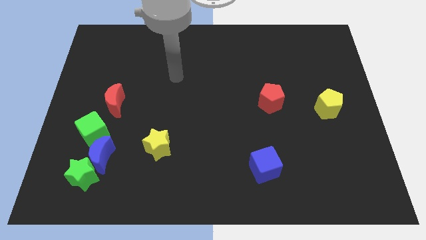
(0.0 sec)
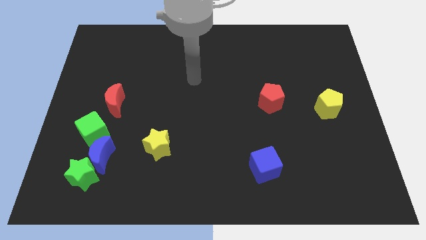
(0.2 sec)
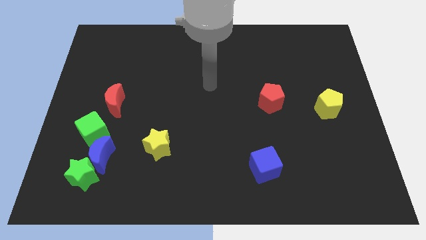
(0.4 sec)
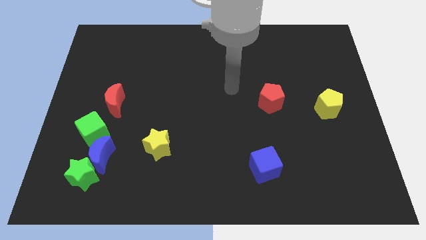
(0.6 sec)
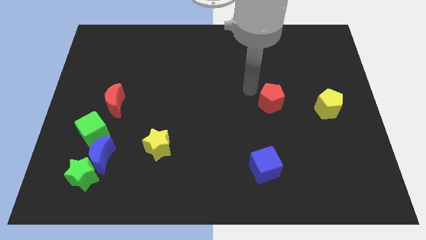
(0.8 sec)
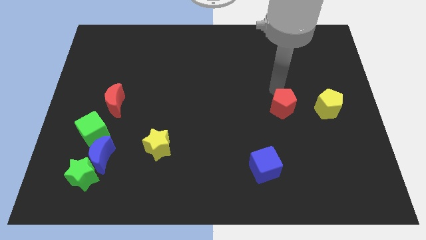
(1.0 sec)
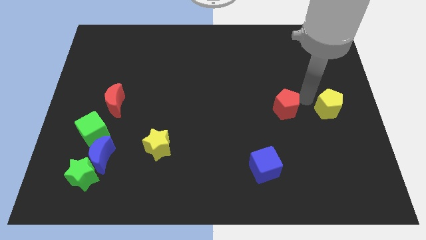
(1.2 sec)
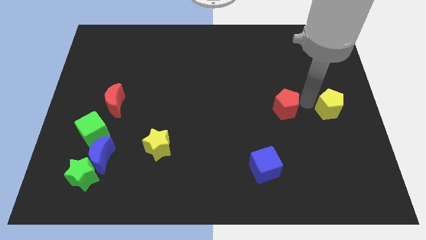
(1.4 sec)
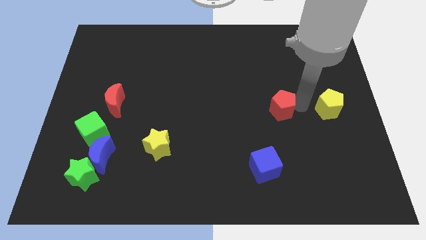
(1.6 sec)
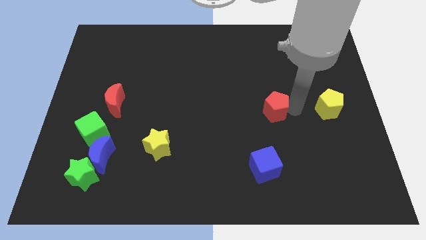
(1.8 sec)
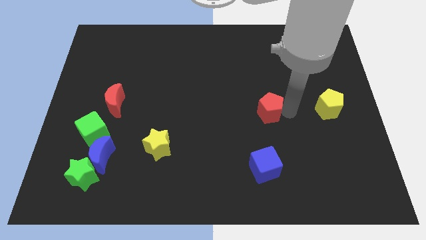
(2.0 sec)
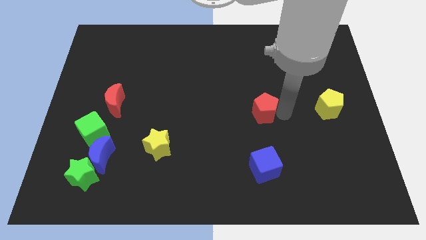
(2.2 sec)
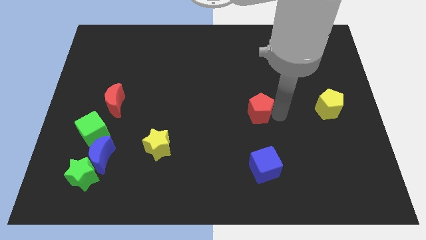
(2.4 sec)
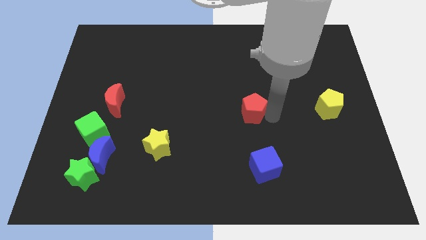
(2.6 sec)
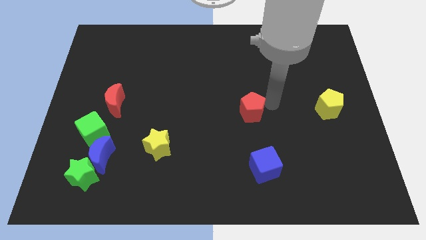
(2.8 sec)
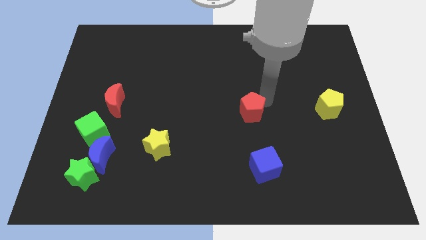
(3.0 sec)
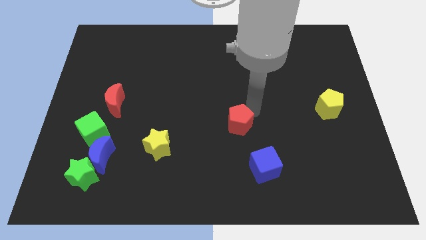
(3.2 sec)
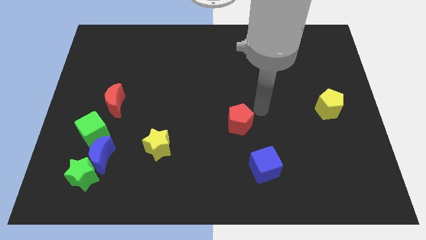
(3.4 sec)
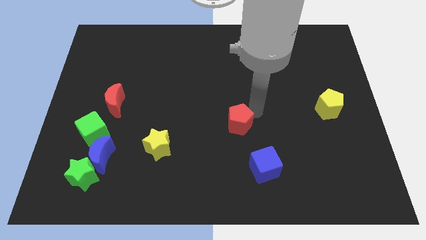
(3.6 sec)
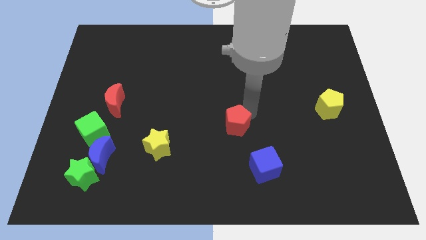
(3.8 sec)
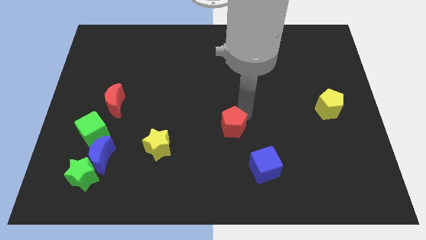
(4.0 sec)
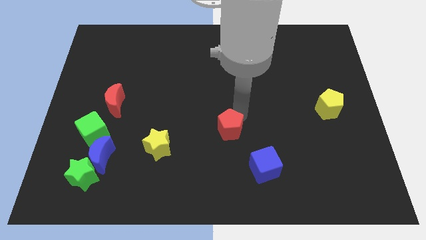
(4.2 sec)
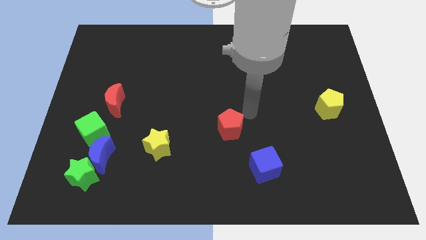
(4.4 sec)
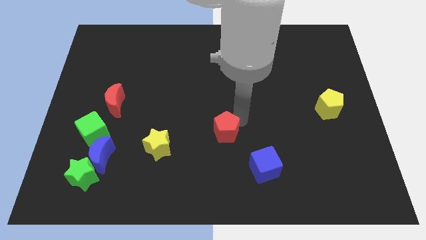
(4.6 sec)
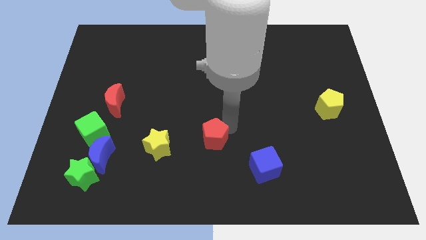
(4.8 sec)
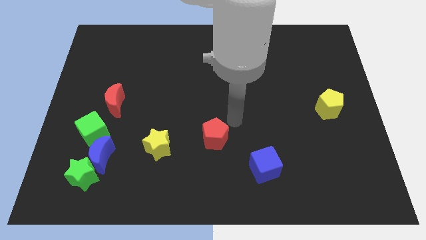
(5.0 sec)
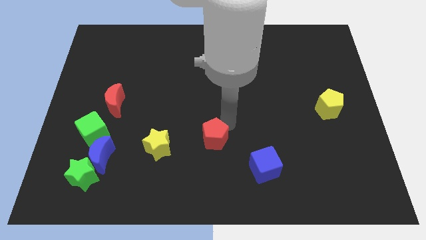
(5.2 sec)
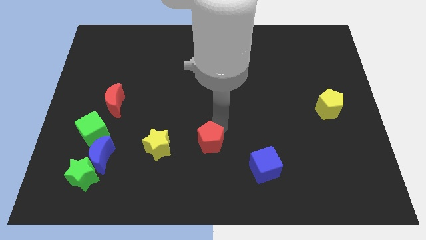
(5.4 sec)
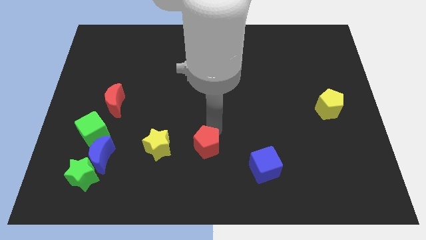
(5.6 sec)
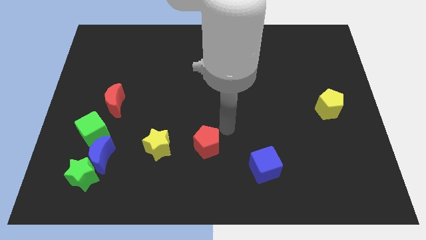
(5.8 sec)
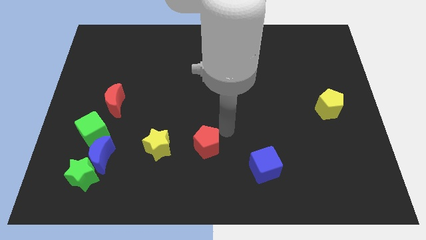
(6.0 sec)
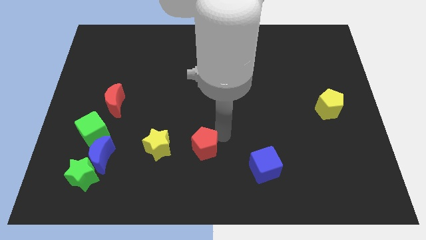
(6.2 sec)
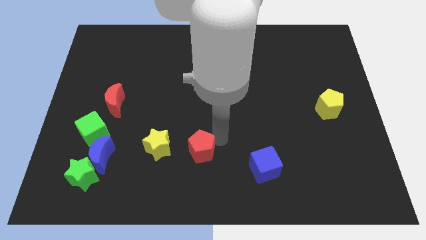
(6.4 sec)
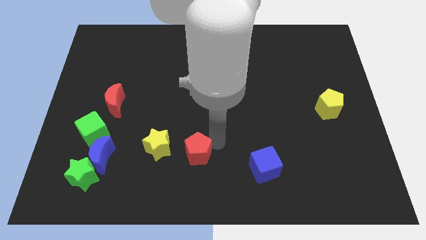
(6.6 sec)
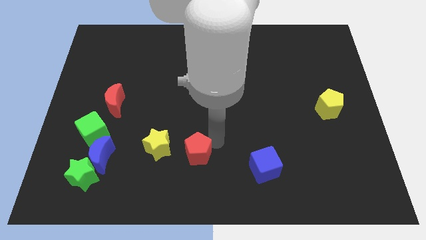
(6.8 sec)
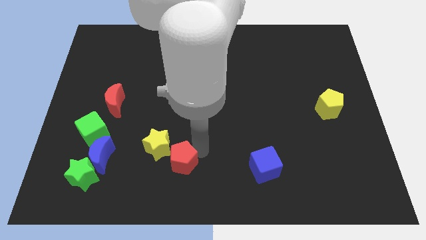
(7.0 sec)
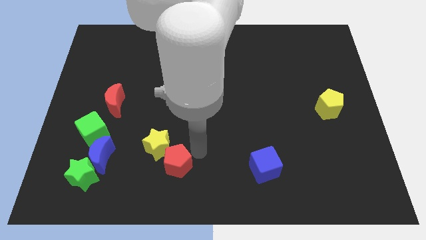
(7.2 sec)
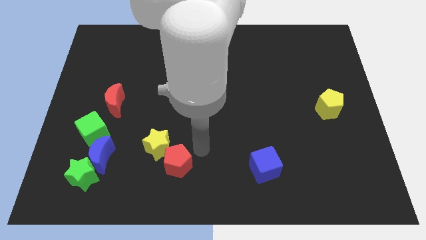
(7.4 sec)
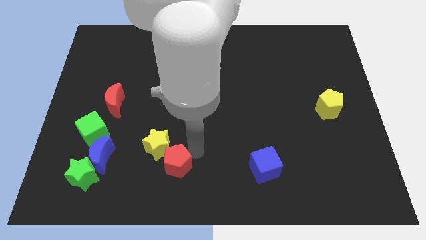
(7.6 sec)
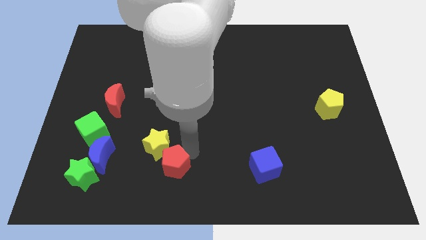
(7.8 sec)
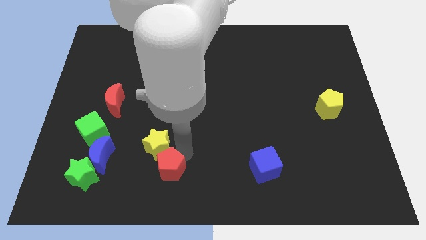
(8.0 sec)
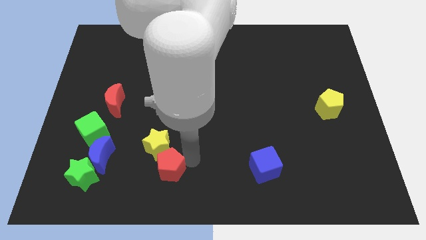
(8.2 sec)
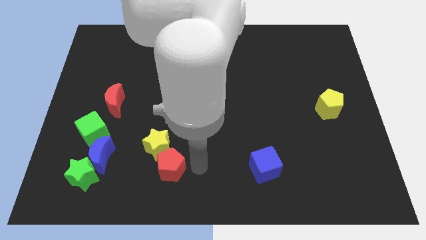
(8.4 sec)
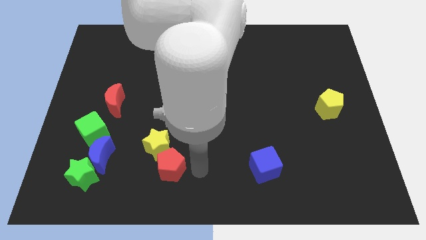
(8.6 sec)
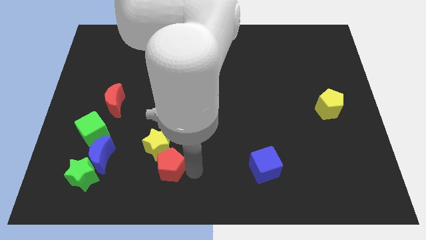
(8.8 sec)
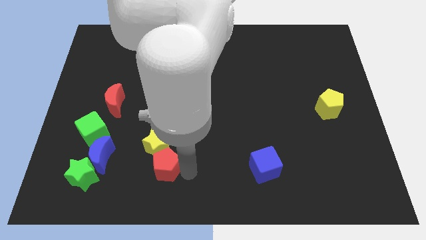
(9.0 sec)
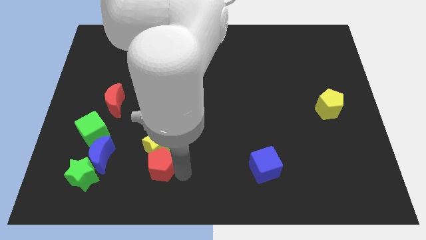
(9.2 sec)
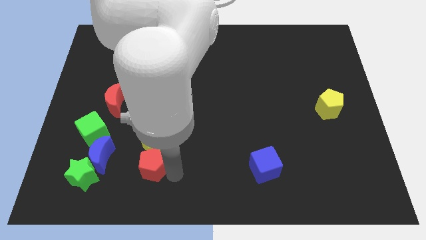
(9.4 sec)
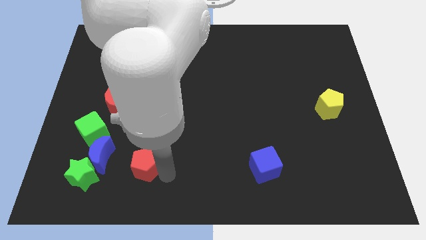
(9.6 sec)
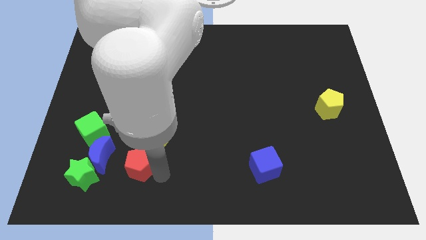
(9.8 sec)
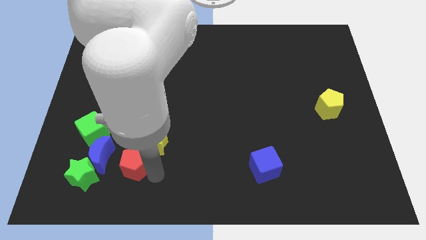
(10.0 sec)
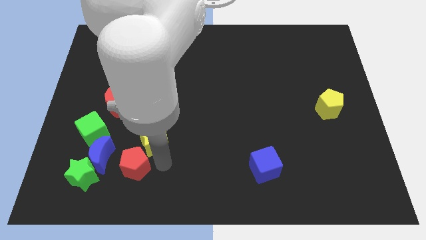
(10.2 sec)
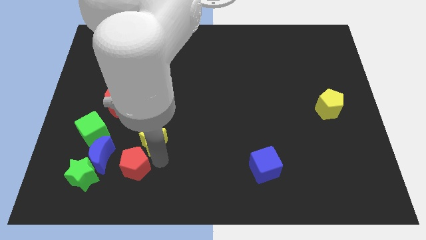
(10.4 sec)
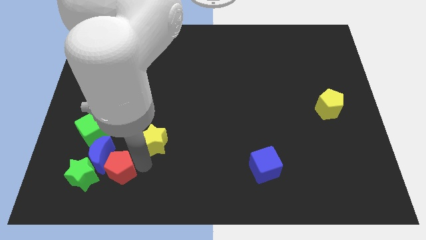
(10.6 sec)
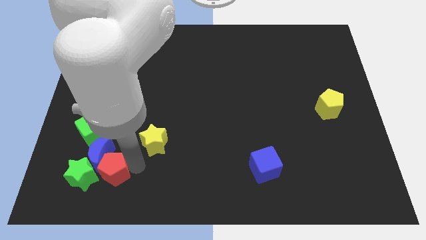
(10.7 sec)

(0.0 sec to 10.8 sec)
slide the red pentagon towards the green star

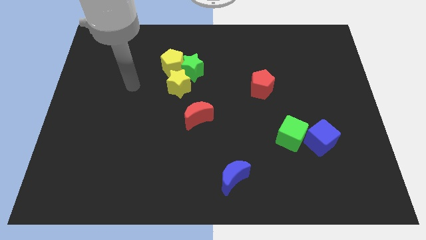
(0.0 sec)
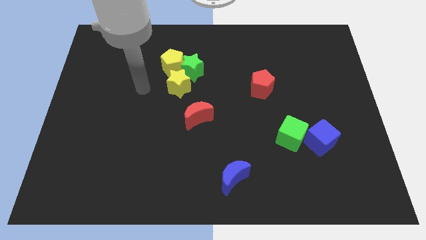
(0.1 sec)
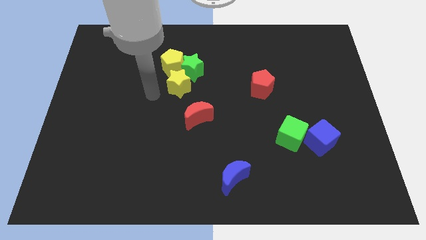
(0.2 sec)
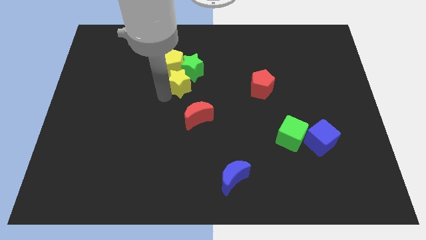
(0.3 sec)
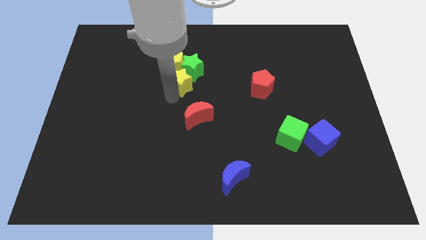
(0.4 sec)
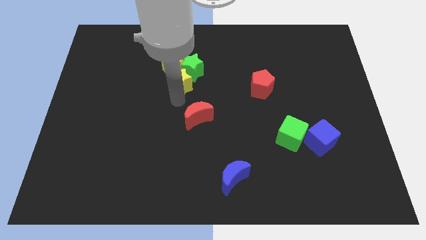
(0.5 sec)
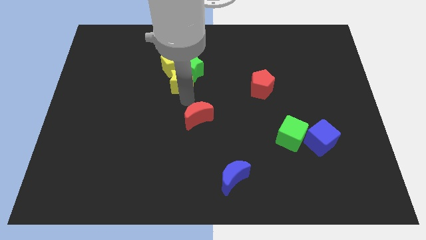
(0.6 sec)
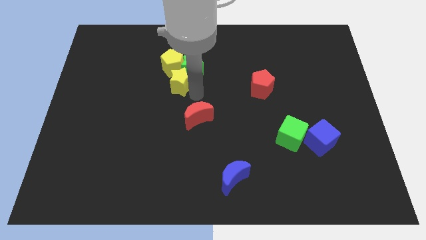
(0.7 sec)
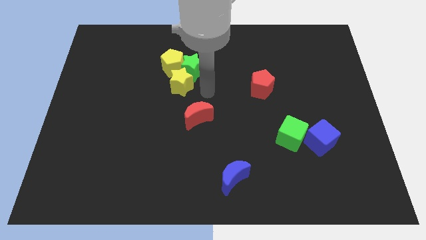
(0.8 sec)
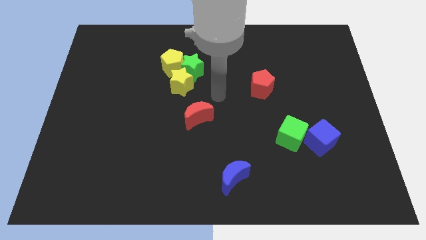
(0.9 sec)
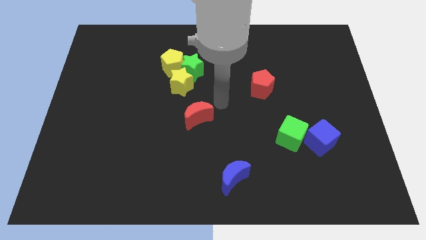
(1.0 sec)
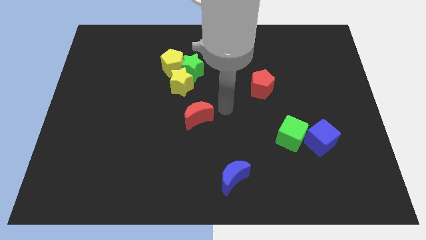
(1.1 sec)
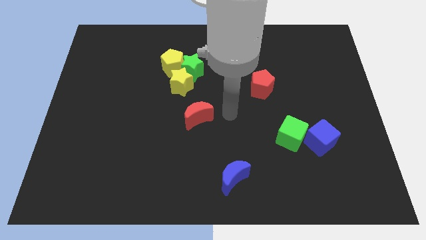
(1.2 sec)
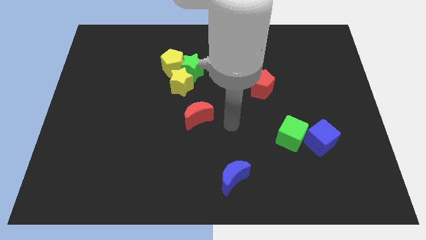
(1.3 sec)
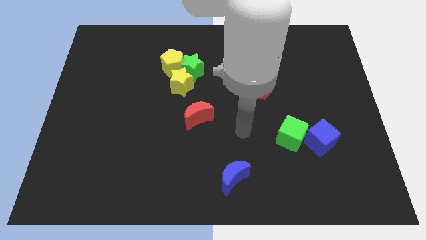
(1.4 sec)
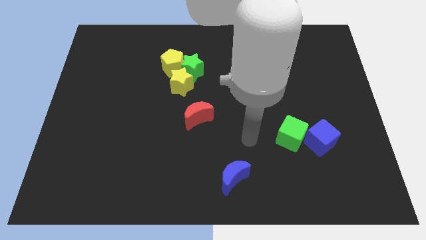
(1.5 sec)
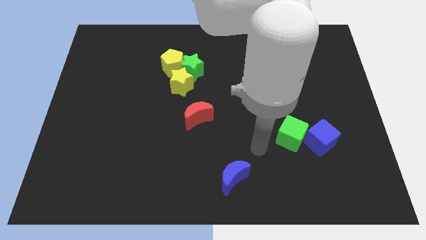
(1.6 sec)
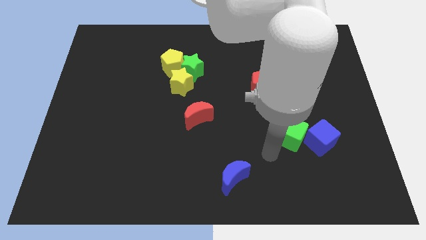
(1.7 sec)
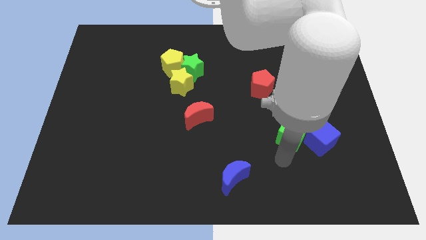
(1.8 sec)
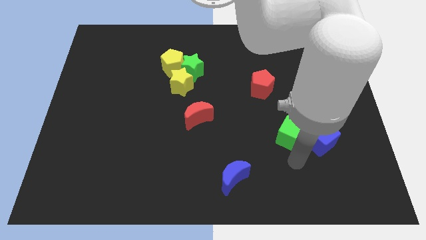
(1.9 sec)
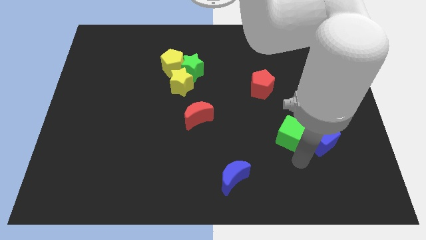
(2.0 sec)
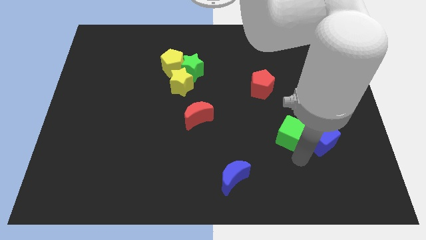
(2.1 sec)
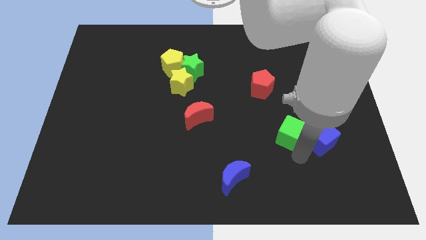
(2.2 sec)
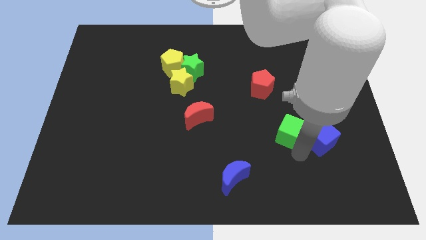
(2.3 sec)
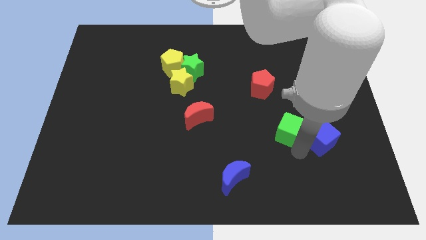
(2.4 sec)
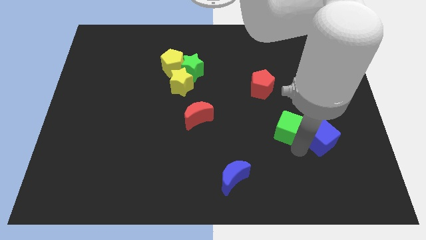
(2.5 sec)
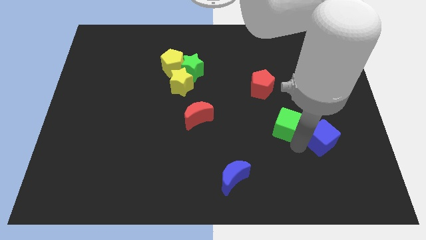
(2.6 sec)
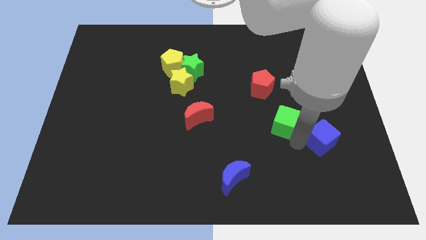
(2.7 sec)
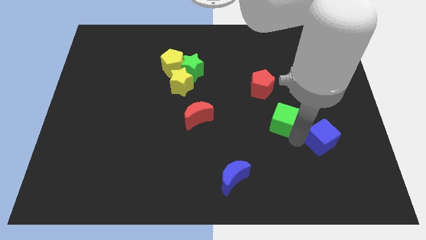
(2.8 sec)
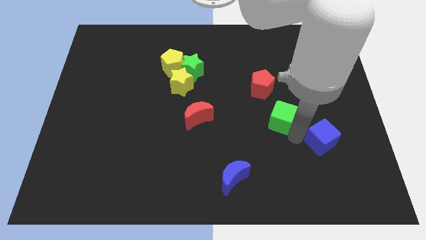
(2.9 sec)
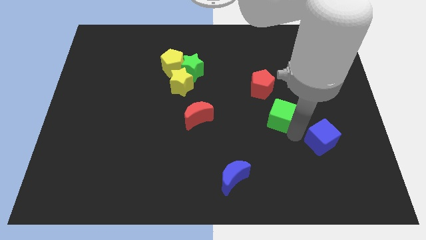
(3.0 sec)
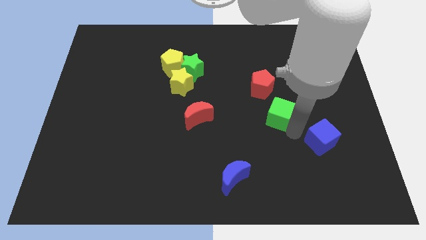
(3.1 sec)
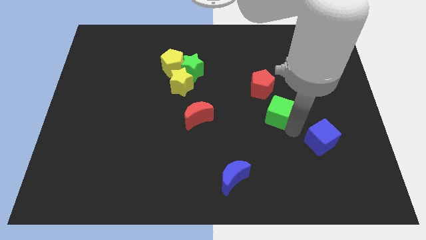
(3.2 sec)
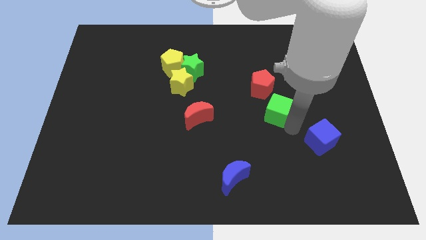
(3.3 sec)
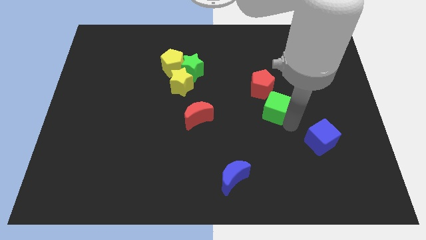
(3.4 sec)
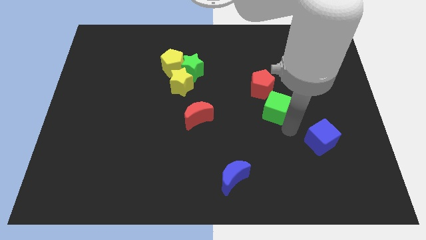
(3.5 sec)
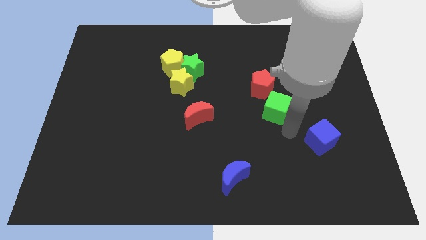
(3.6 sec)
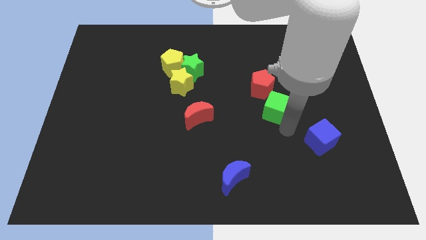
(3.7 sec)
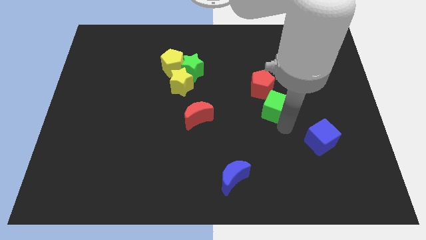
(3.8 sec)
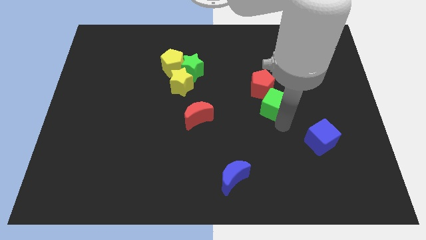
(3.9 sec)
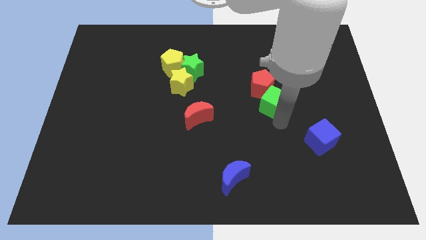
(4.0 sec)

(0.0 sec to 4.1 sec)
push the green cube next to the red pentagon
